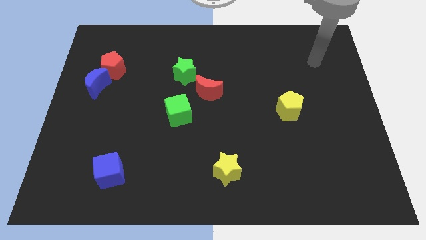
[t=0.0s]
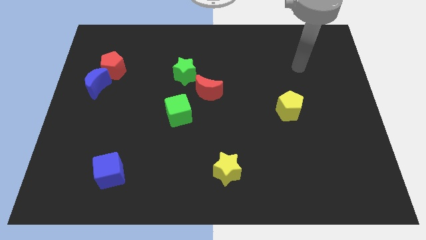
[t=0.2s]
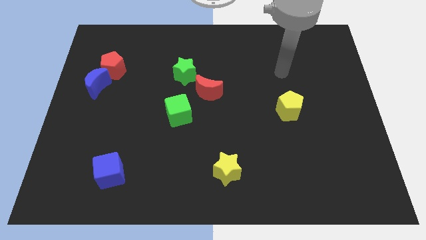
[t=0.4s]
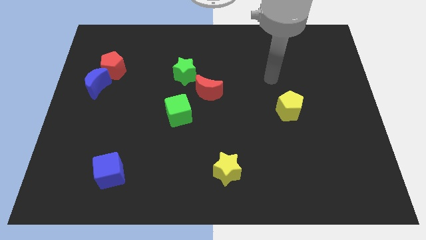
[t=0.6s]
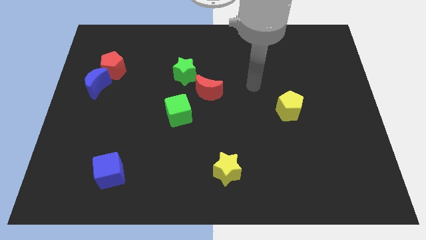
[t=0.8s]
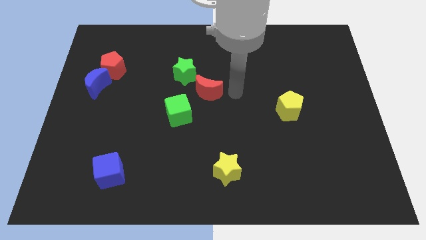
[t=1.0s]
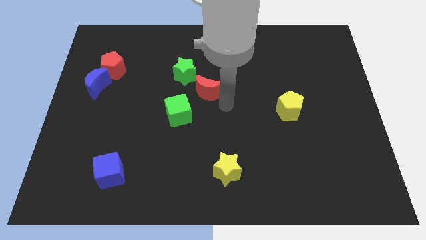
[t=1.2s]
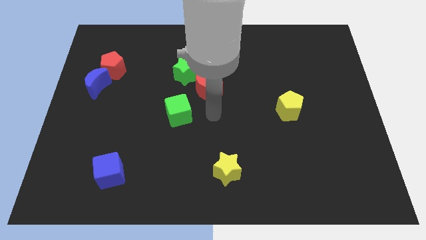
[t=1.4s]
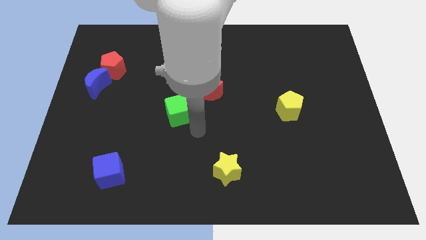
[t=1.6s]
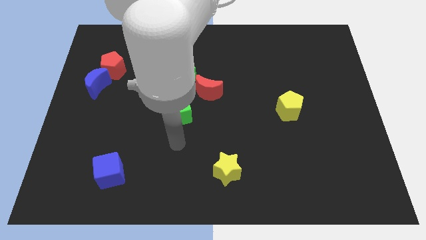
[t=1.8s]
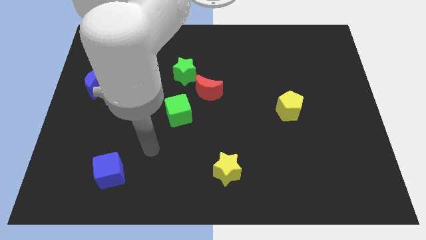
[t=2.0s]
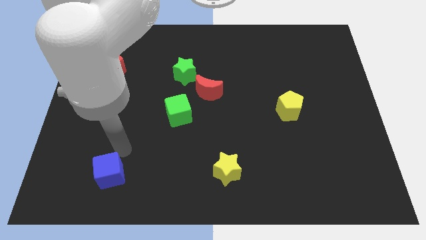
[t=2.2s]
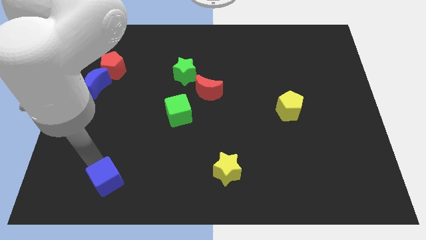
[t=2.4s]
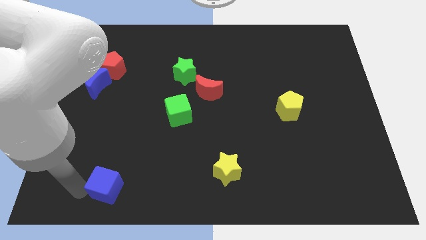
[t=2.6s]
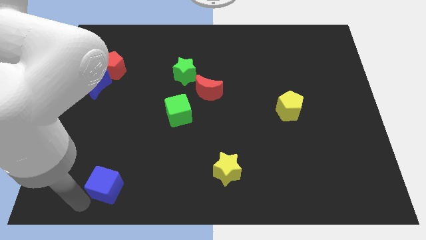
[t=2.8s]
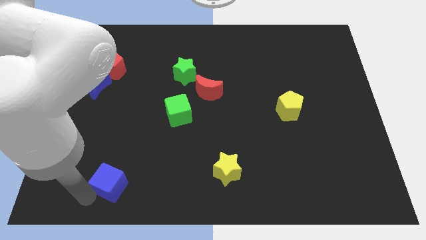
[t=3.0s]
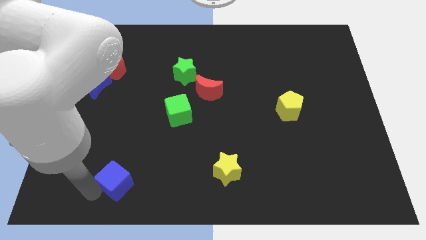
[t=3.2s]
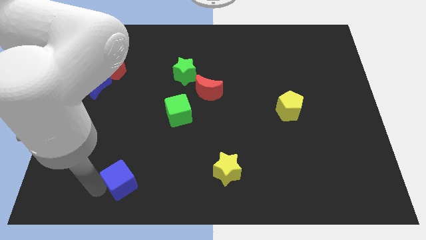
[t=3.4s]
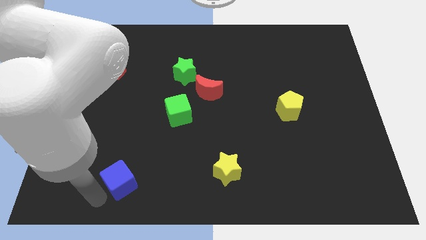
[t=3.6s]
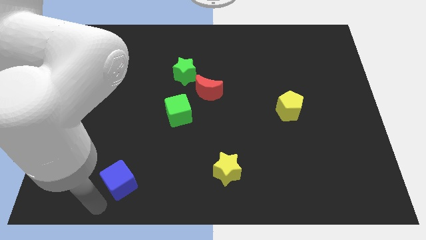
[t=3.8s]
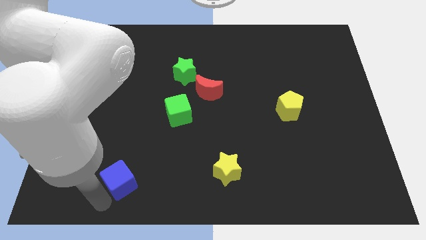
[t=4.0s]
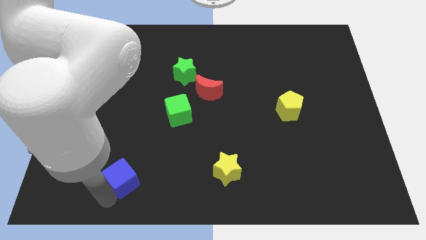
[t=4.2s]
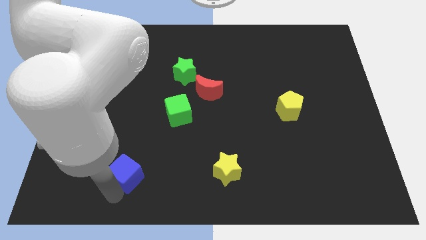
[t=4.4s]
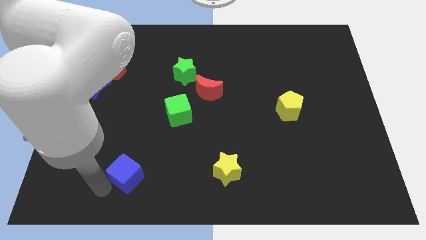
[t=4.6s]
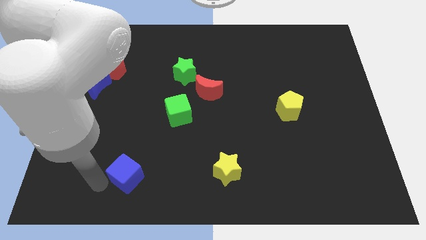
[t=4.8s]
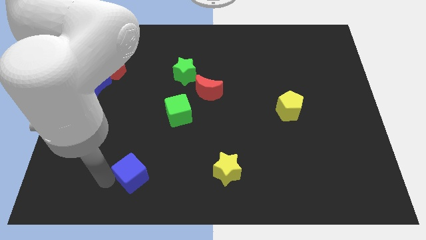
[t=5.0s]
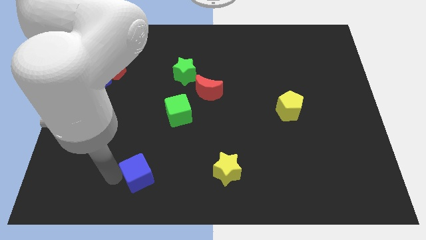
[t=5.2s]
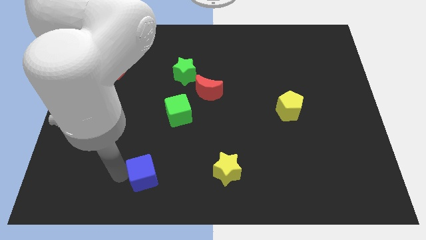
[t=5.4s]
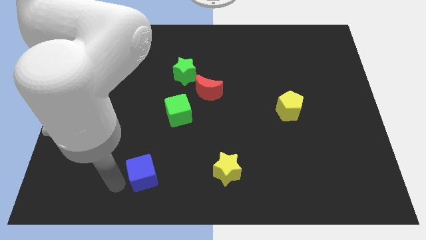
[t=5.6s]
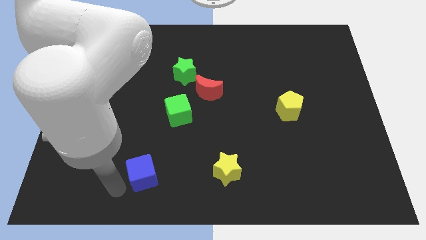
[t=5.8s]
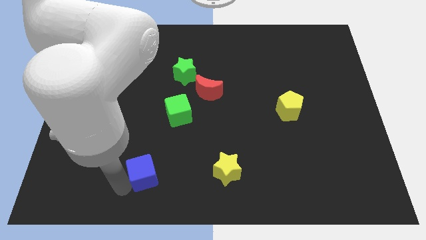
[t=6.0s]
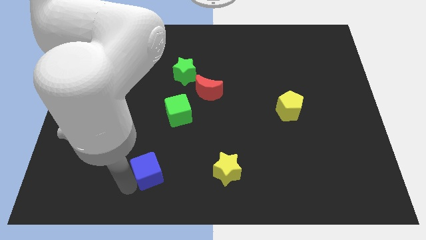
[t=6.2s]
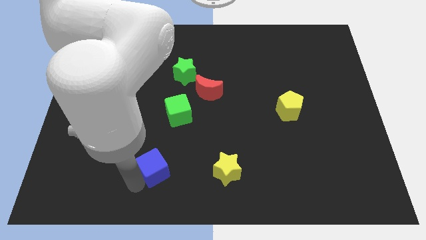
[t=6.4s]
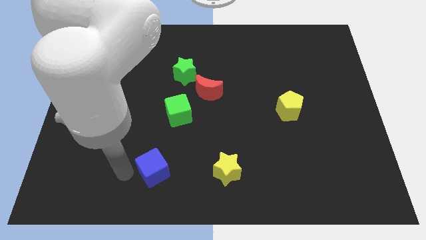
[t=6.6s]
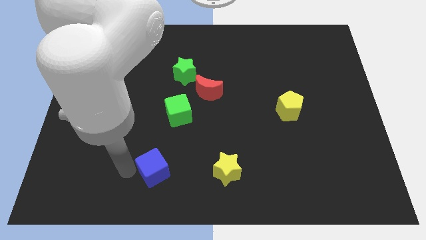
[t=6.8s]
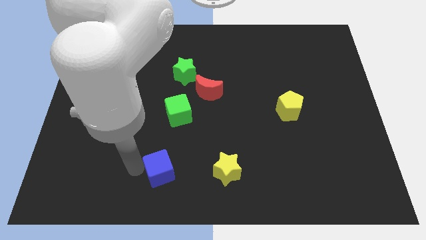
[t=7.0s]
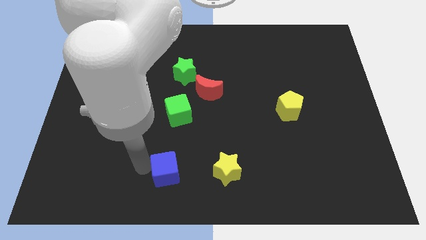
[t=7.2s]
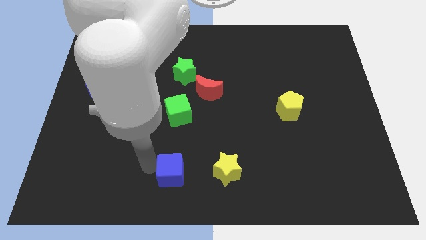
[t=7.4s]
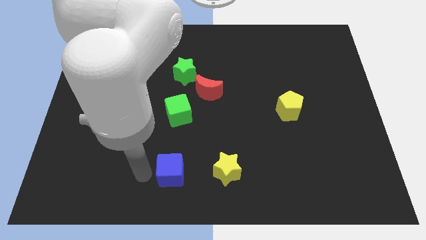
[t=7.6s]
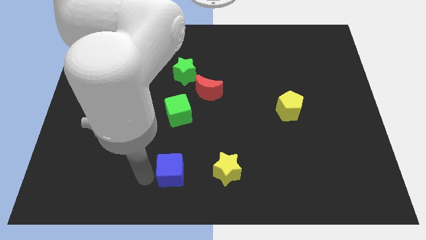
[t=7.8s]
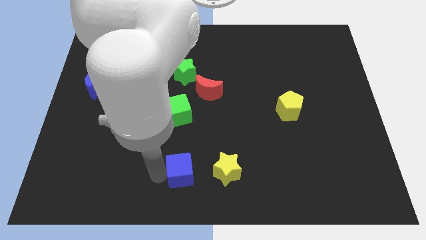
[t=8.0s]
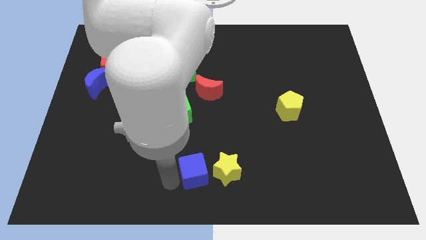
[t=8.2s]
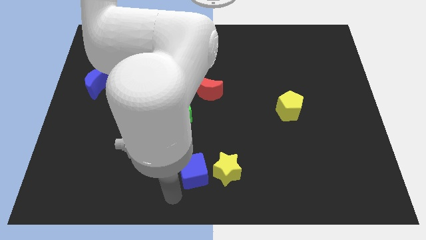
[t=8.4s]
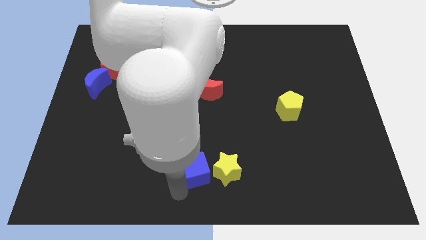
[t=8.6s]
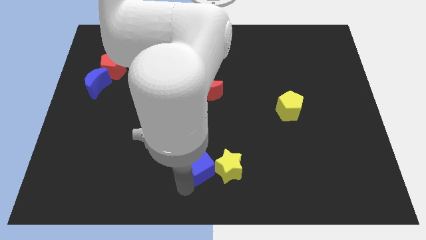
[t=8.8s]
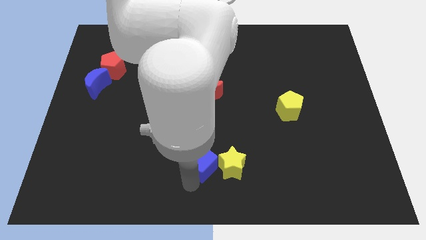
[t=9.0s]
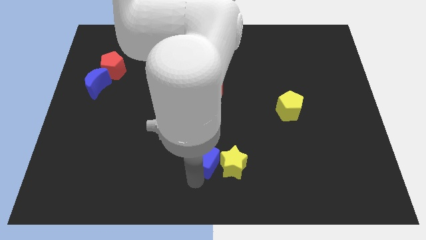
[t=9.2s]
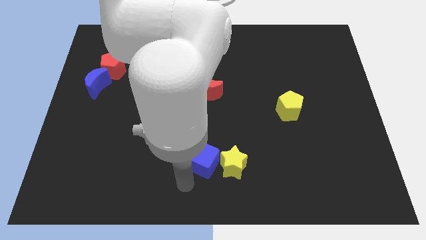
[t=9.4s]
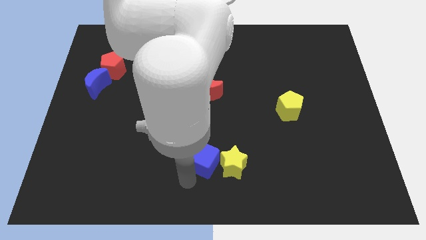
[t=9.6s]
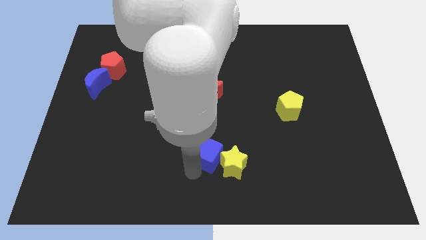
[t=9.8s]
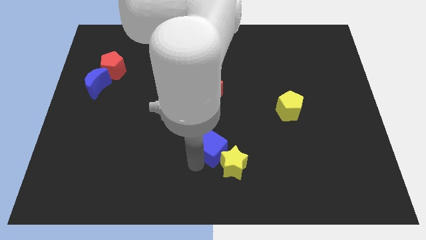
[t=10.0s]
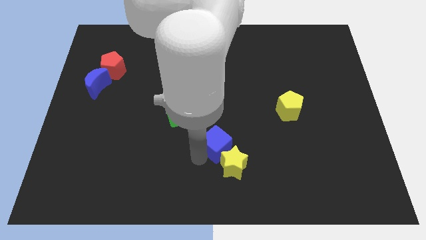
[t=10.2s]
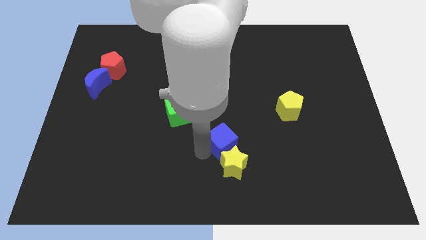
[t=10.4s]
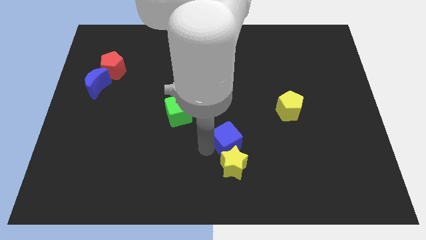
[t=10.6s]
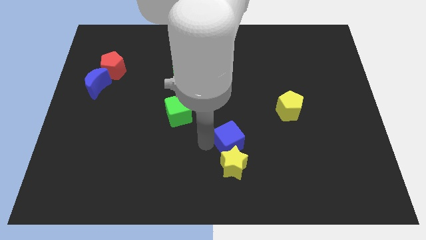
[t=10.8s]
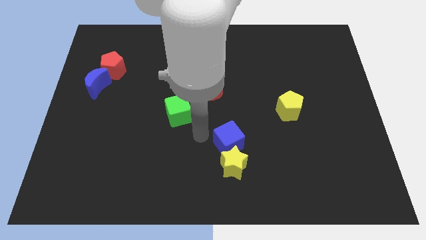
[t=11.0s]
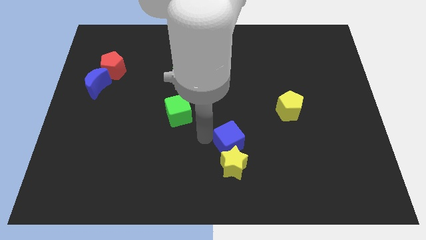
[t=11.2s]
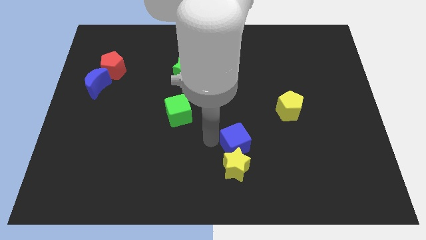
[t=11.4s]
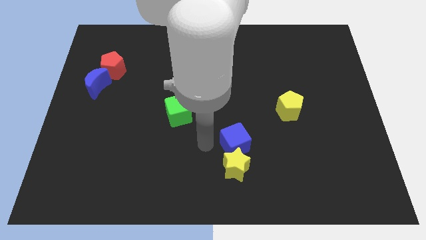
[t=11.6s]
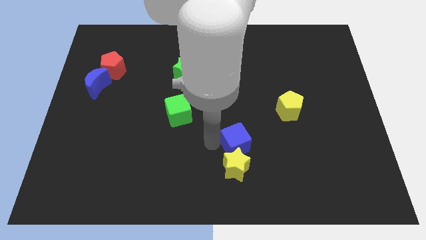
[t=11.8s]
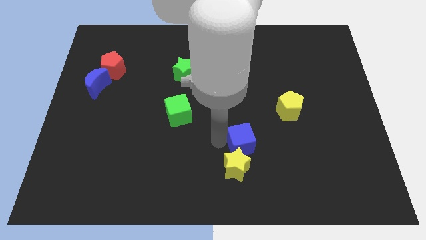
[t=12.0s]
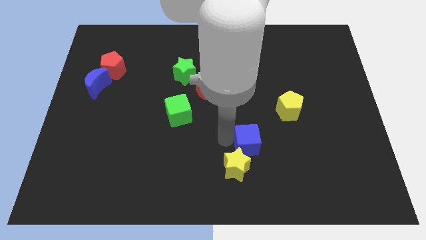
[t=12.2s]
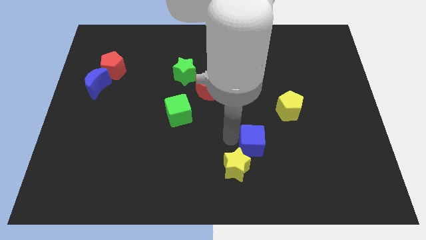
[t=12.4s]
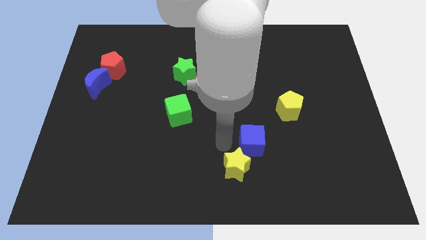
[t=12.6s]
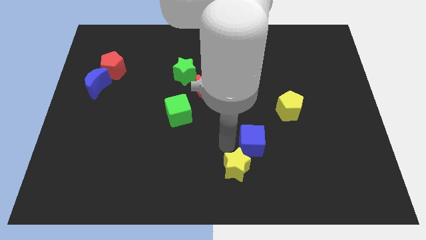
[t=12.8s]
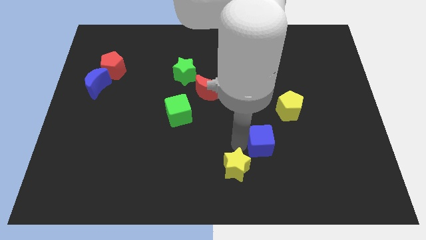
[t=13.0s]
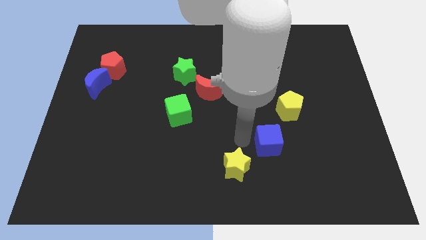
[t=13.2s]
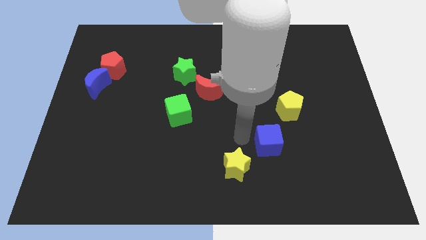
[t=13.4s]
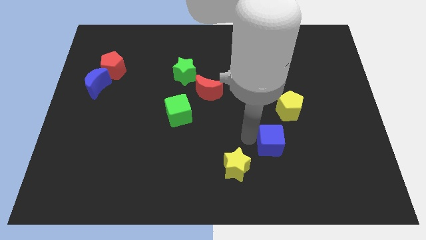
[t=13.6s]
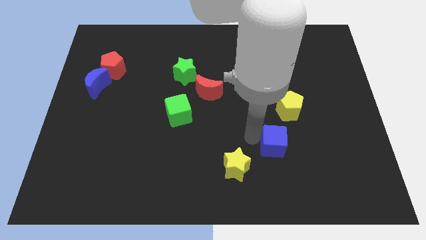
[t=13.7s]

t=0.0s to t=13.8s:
move the blue cube to the bottom side of the yellow pentagon
